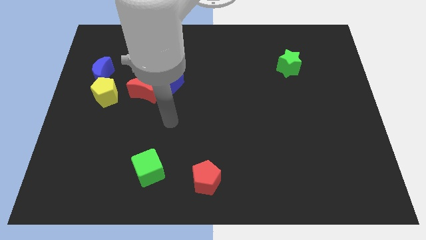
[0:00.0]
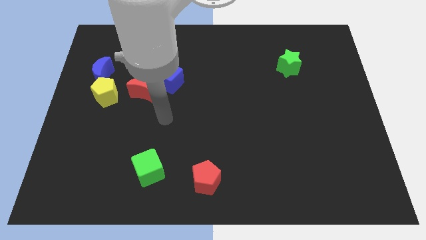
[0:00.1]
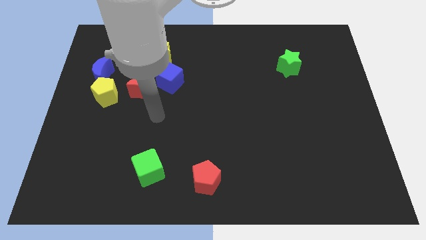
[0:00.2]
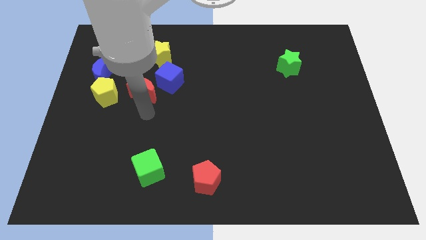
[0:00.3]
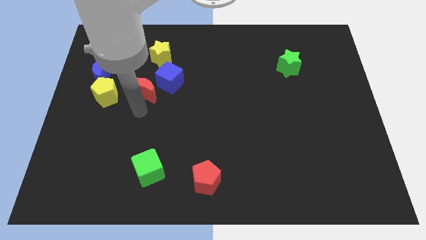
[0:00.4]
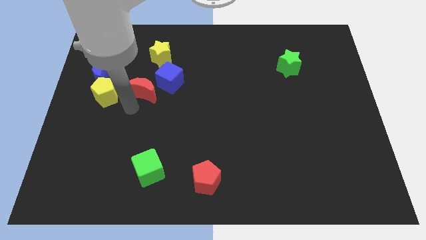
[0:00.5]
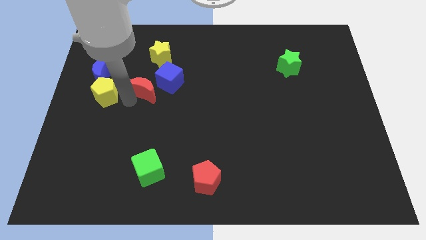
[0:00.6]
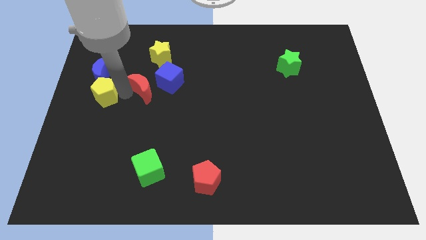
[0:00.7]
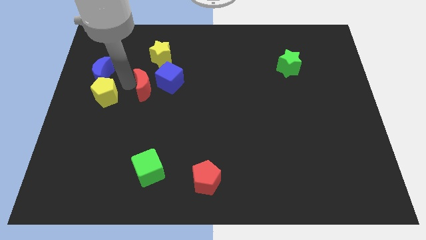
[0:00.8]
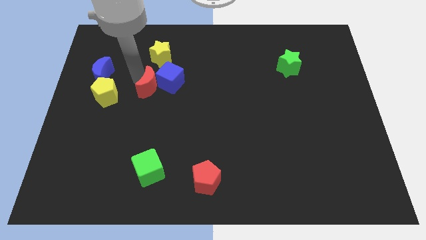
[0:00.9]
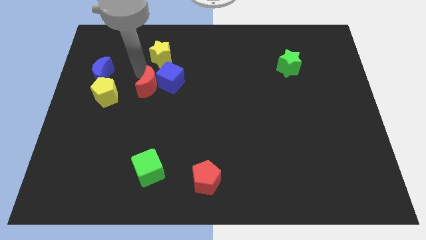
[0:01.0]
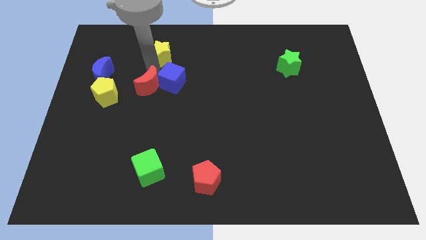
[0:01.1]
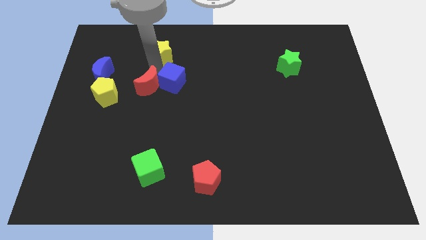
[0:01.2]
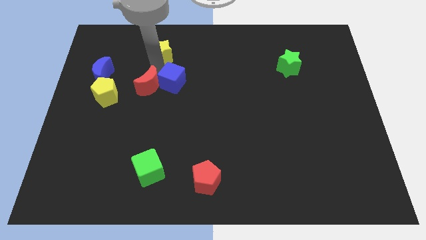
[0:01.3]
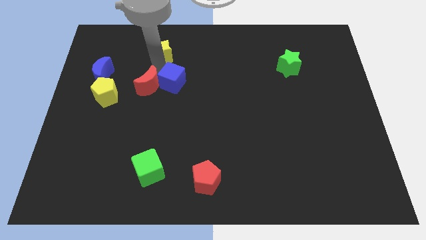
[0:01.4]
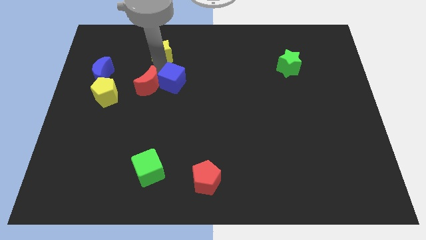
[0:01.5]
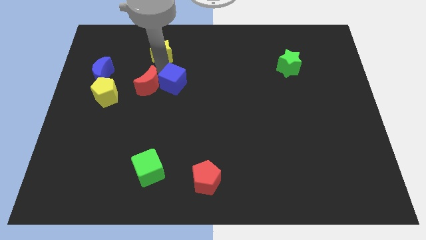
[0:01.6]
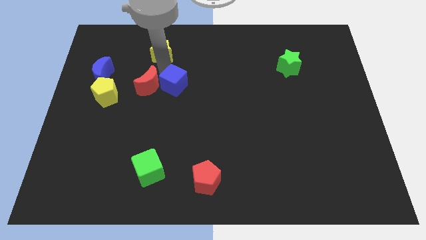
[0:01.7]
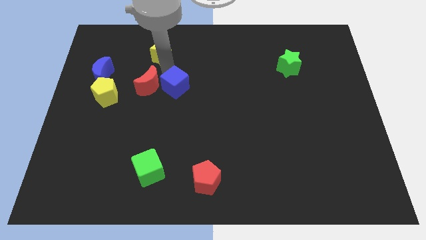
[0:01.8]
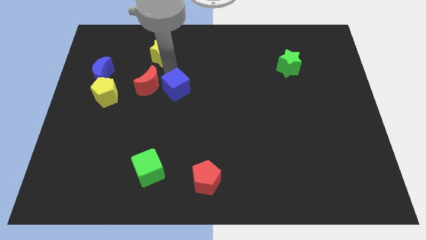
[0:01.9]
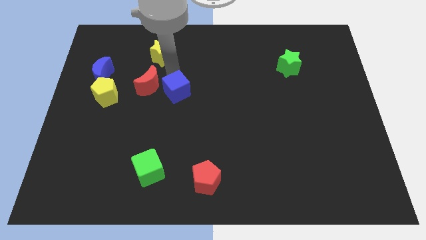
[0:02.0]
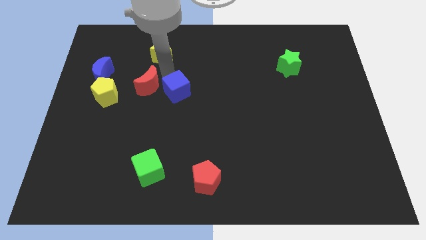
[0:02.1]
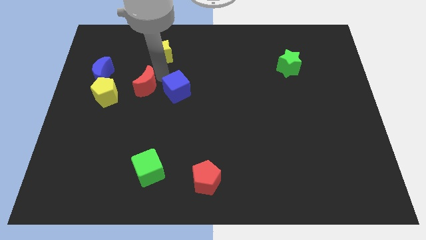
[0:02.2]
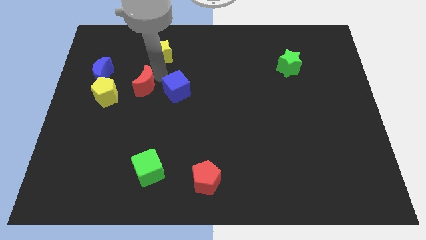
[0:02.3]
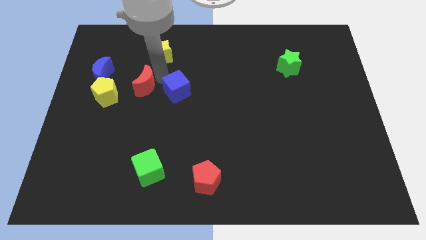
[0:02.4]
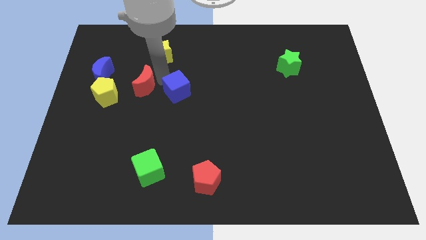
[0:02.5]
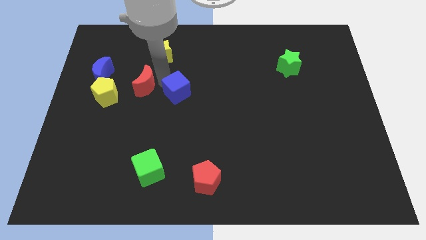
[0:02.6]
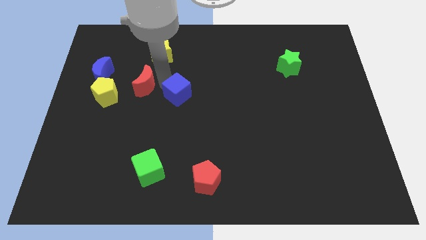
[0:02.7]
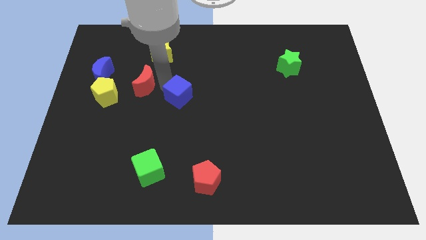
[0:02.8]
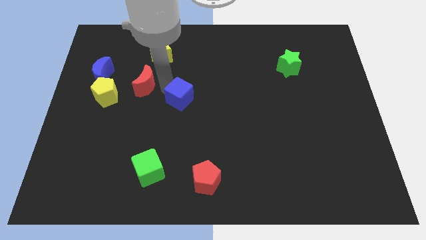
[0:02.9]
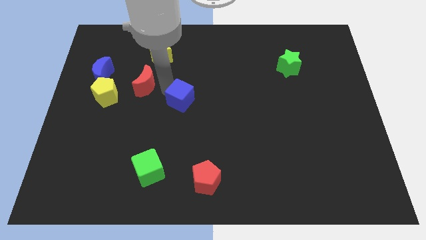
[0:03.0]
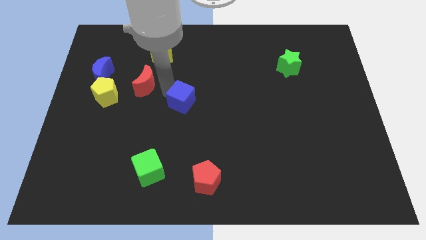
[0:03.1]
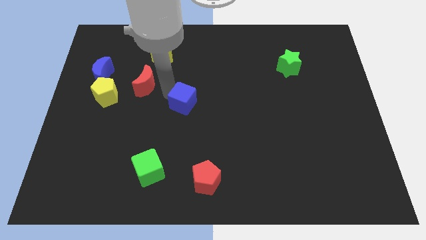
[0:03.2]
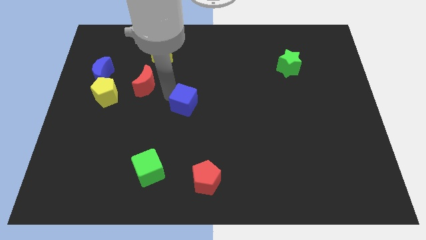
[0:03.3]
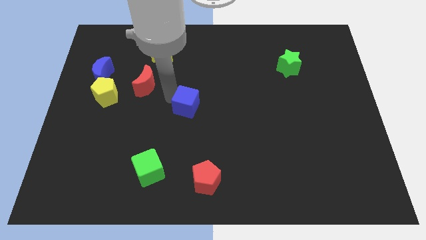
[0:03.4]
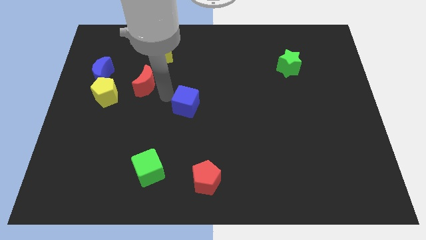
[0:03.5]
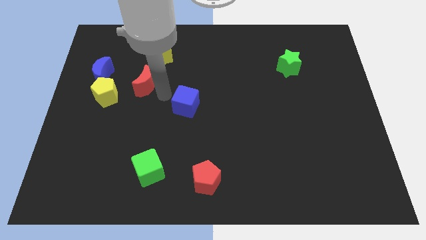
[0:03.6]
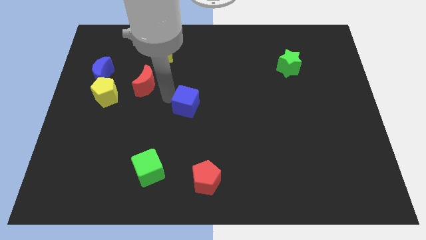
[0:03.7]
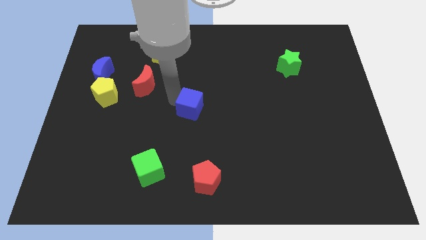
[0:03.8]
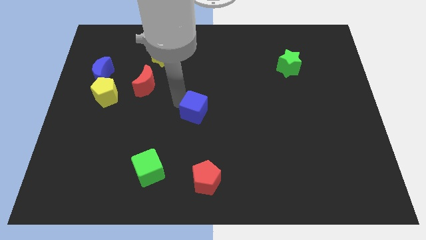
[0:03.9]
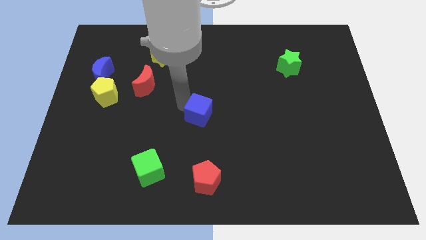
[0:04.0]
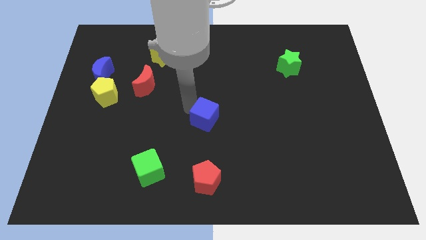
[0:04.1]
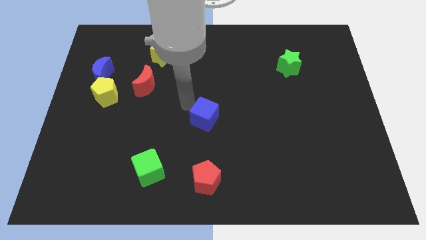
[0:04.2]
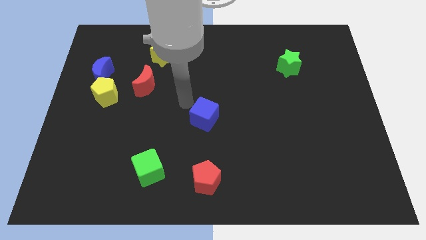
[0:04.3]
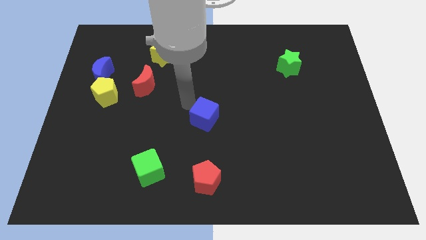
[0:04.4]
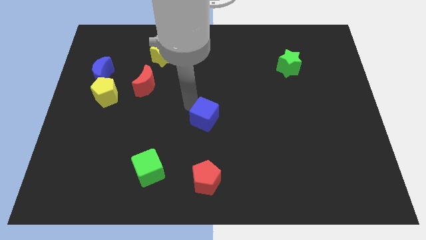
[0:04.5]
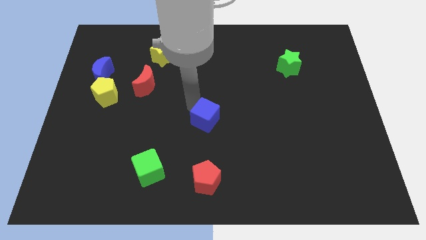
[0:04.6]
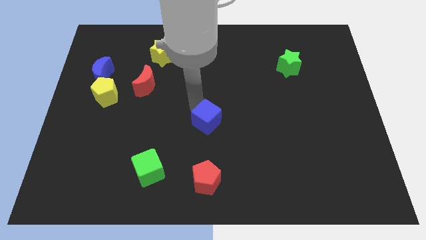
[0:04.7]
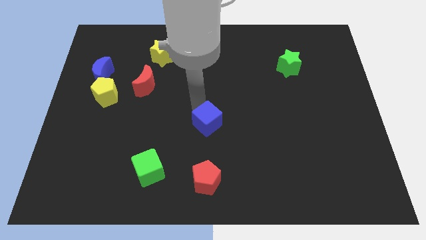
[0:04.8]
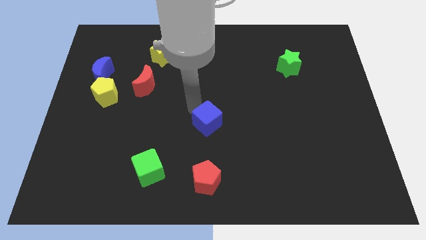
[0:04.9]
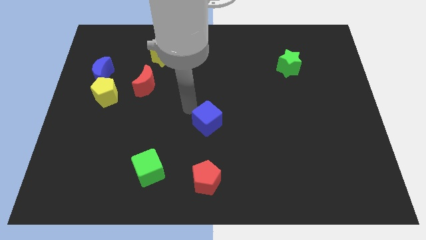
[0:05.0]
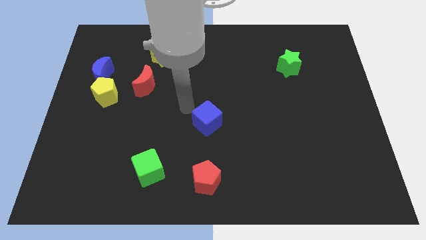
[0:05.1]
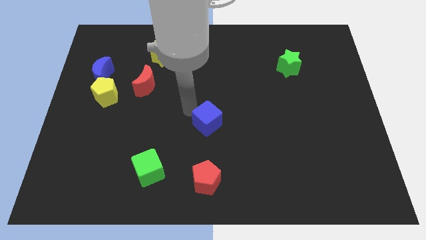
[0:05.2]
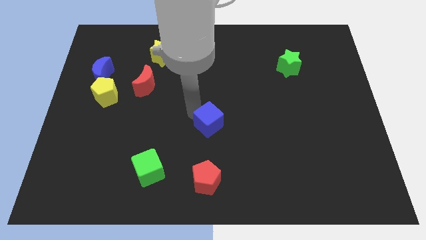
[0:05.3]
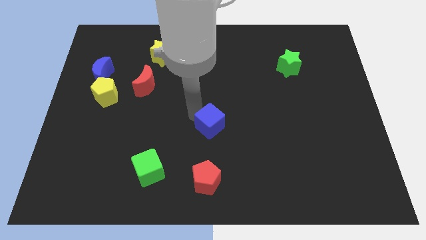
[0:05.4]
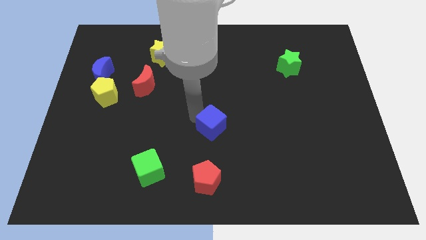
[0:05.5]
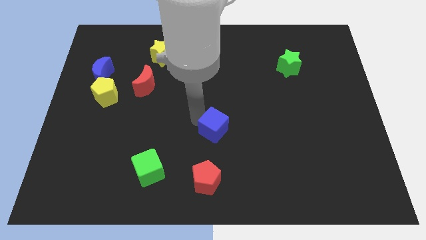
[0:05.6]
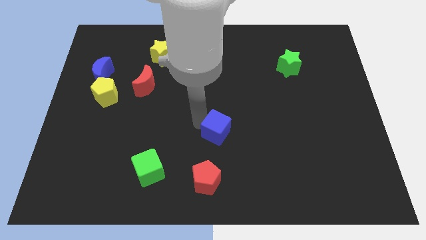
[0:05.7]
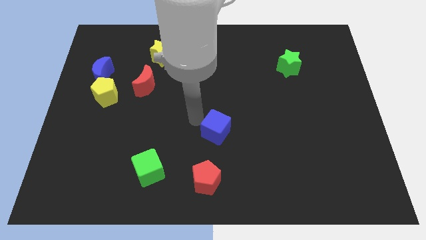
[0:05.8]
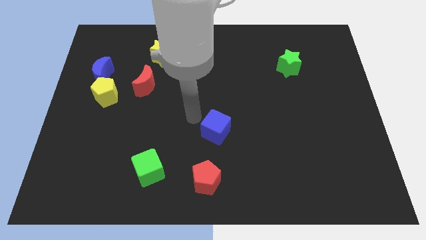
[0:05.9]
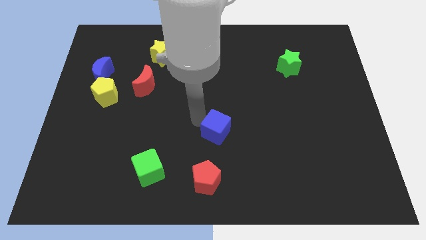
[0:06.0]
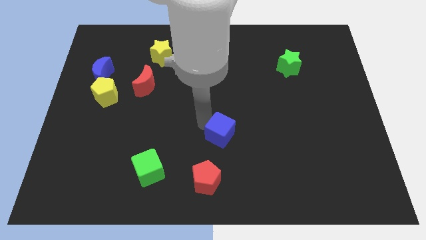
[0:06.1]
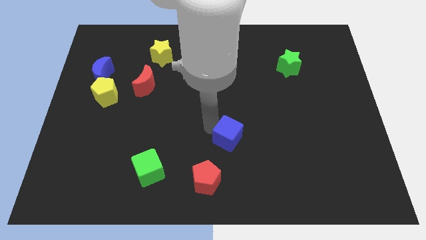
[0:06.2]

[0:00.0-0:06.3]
move the blue cube down and then right

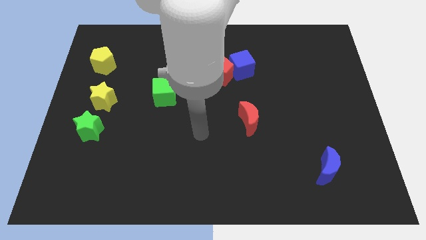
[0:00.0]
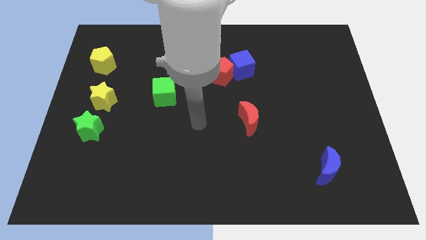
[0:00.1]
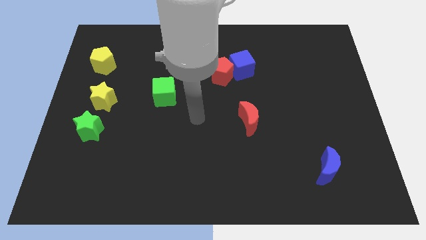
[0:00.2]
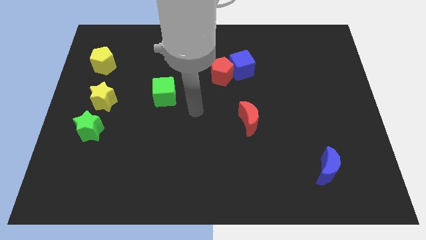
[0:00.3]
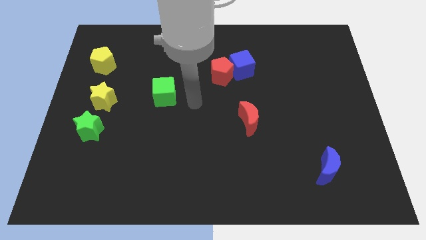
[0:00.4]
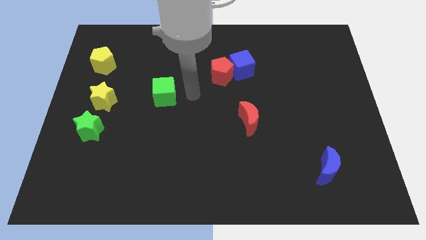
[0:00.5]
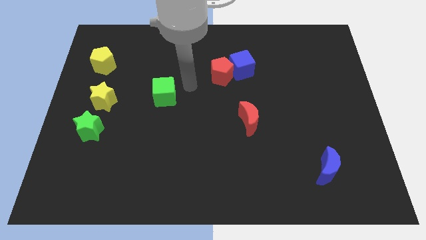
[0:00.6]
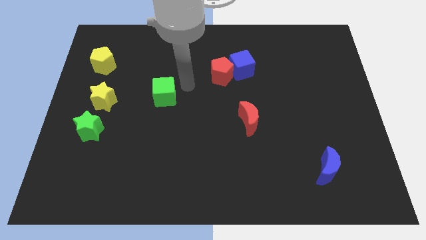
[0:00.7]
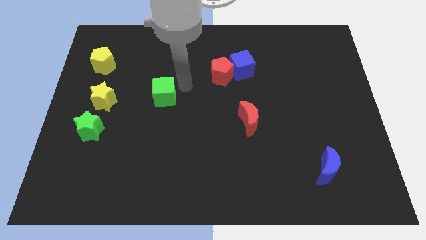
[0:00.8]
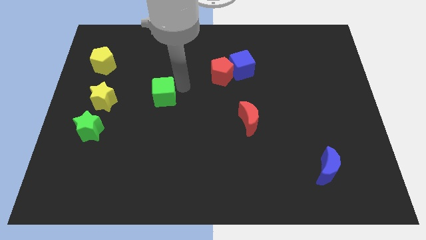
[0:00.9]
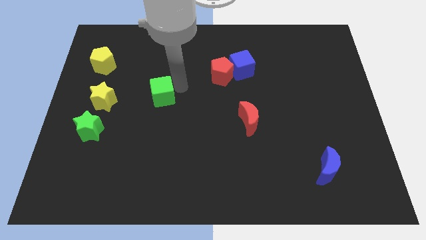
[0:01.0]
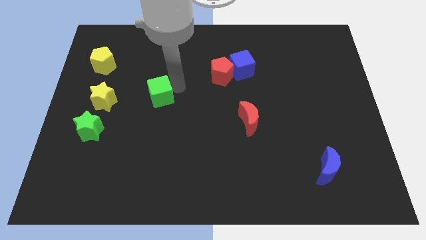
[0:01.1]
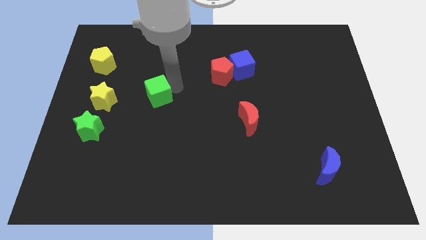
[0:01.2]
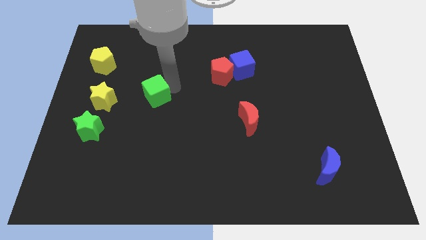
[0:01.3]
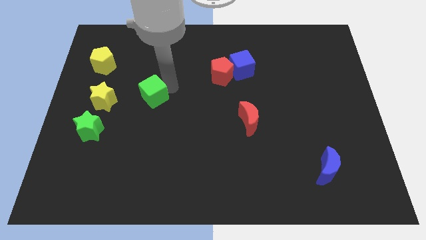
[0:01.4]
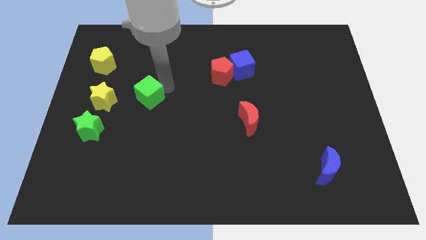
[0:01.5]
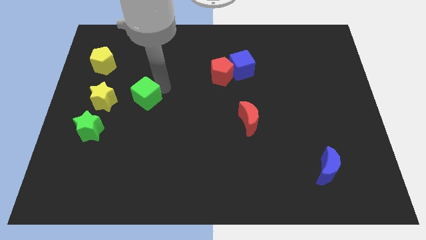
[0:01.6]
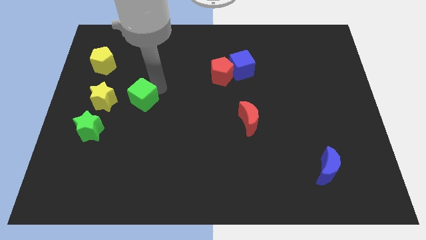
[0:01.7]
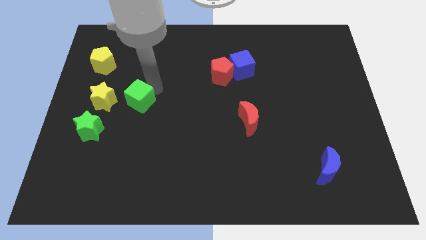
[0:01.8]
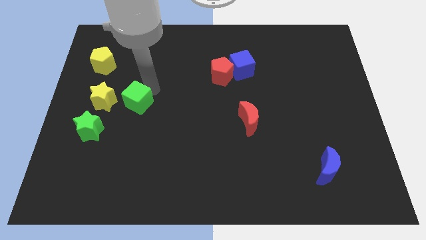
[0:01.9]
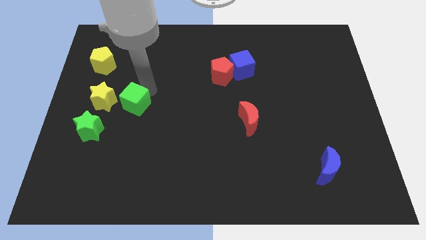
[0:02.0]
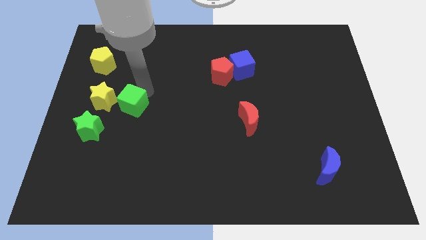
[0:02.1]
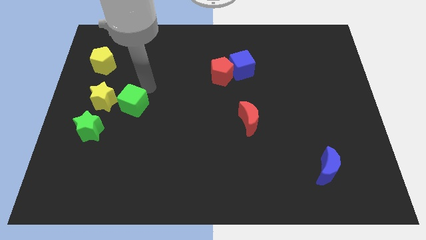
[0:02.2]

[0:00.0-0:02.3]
slightly slide the green cube downwards and then to the left
